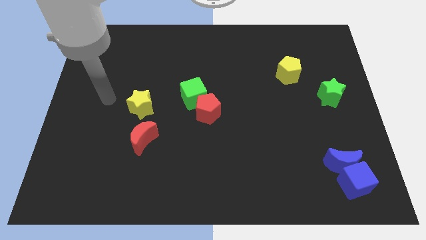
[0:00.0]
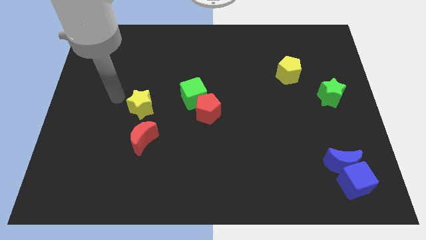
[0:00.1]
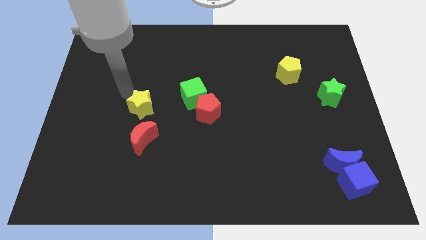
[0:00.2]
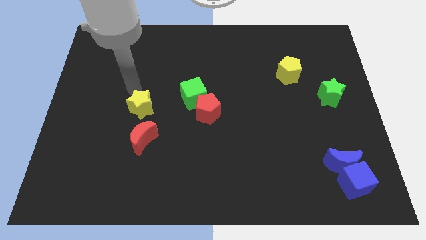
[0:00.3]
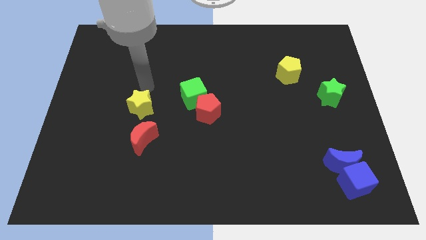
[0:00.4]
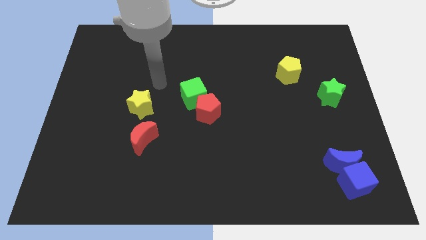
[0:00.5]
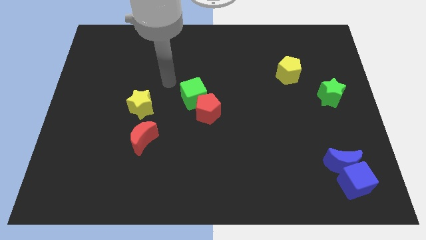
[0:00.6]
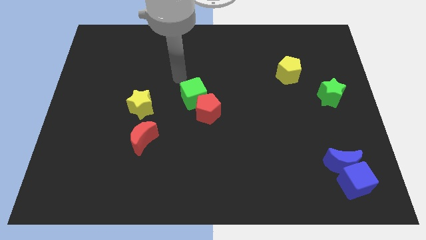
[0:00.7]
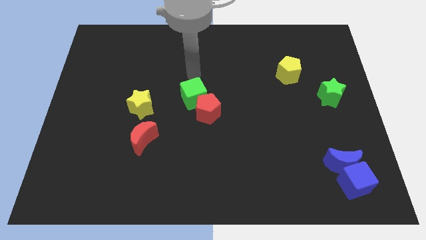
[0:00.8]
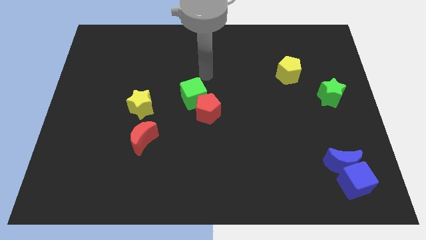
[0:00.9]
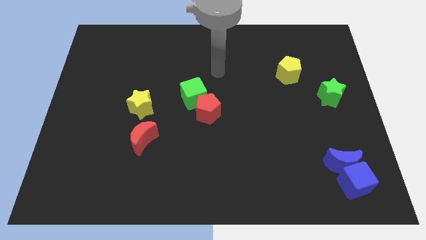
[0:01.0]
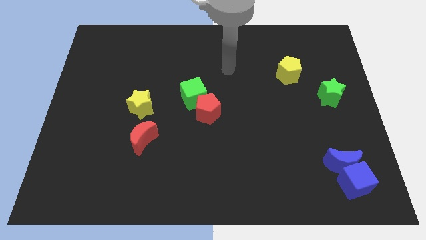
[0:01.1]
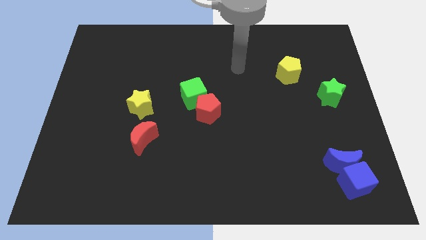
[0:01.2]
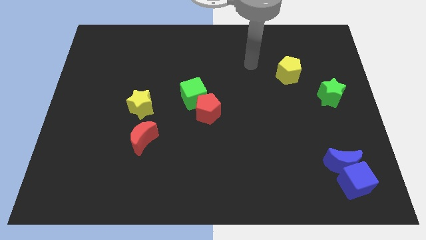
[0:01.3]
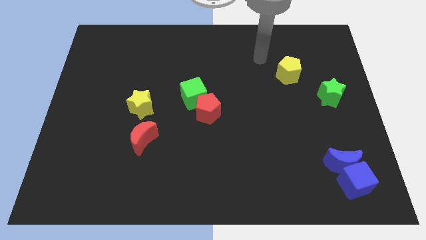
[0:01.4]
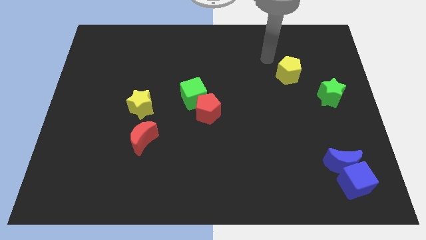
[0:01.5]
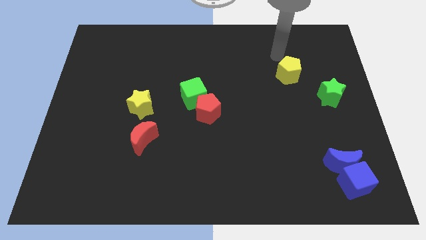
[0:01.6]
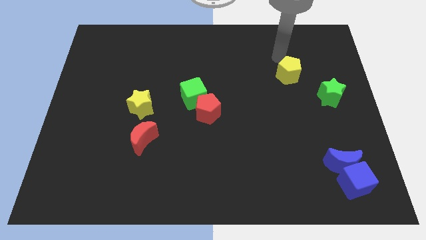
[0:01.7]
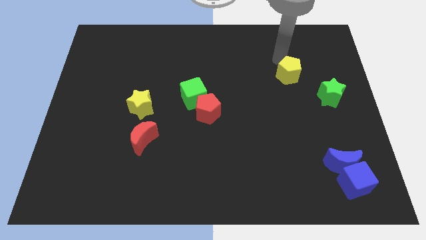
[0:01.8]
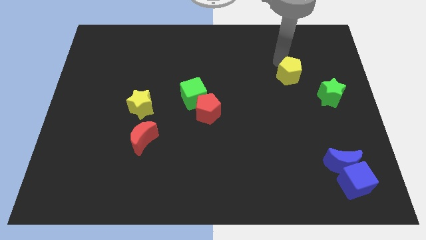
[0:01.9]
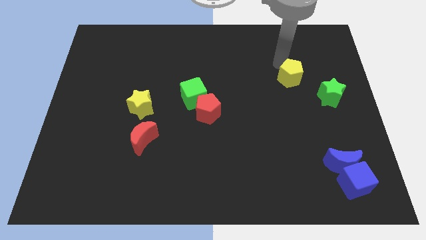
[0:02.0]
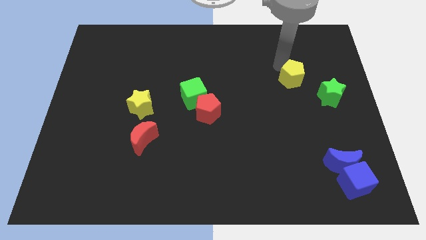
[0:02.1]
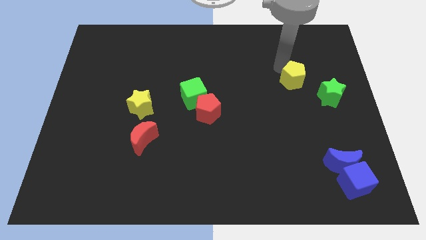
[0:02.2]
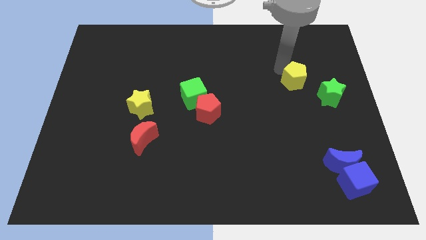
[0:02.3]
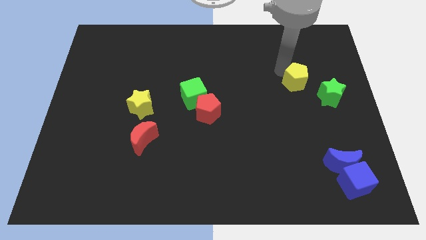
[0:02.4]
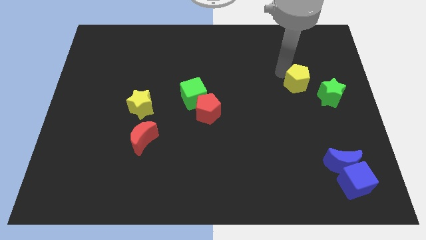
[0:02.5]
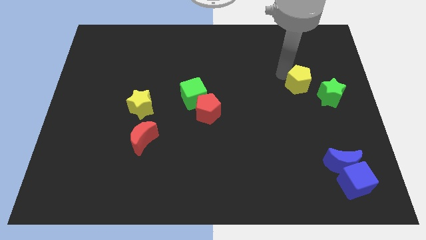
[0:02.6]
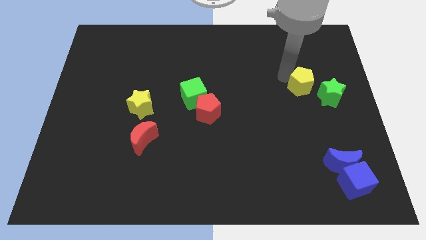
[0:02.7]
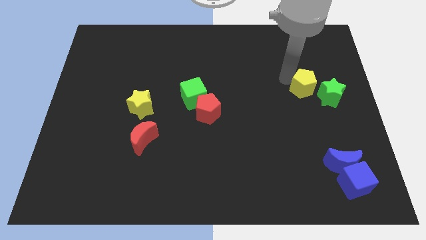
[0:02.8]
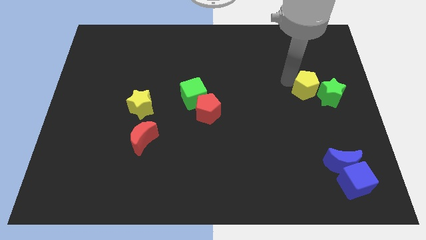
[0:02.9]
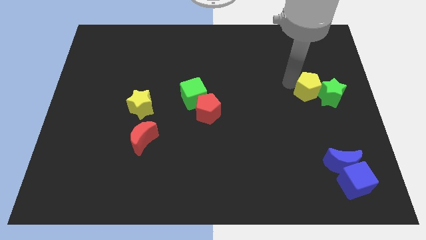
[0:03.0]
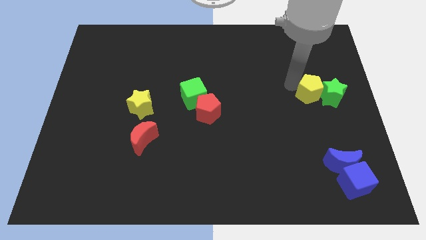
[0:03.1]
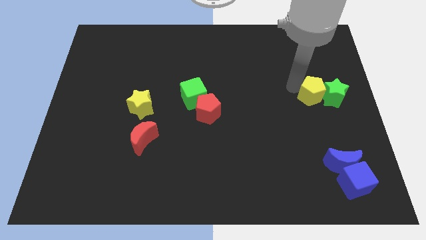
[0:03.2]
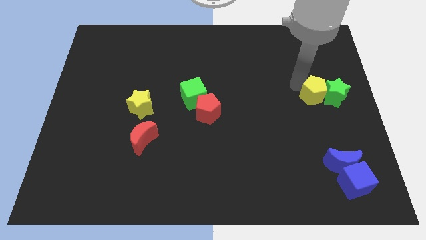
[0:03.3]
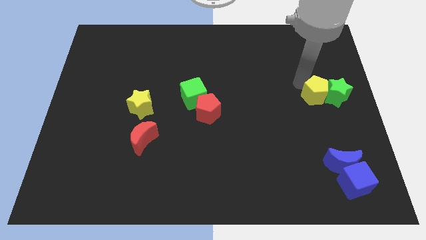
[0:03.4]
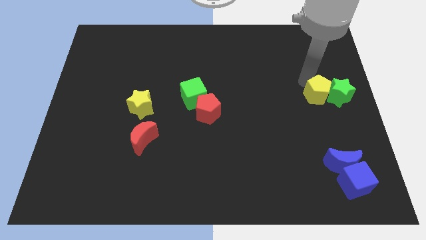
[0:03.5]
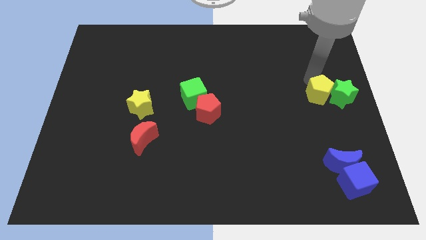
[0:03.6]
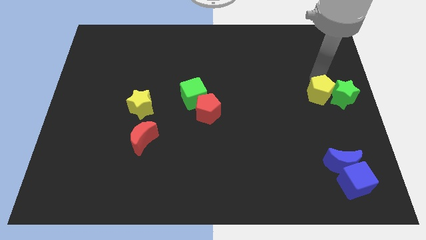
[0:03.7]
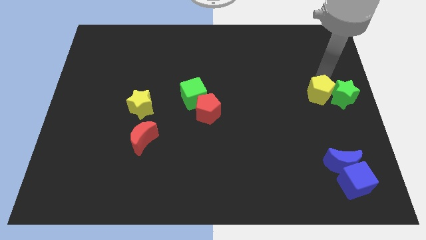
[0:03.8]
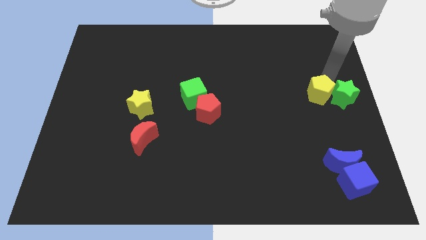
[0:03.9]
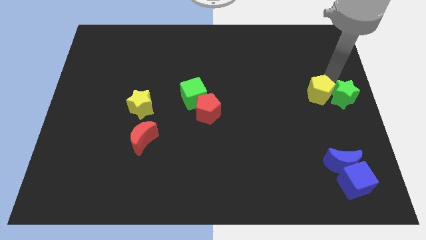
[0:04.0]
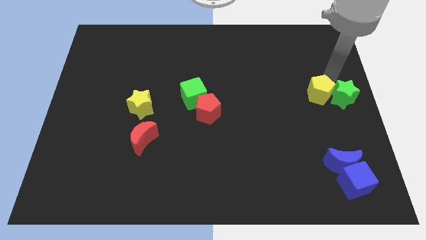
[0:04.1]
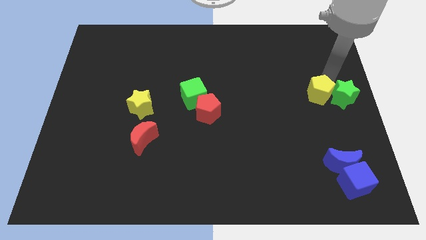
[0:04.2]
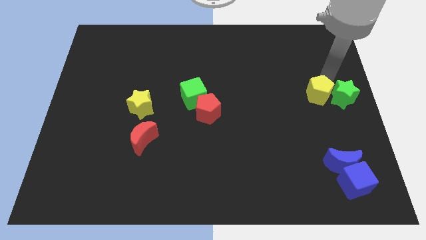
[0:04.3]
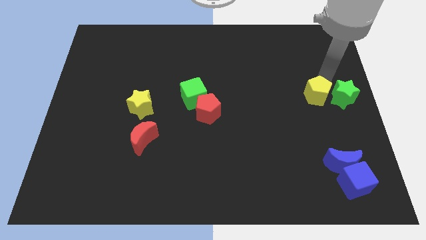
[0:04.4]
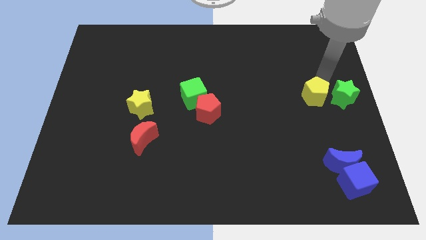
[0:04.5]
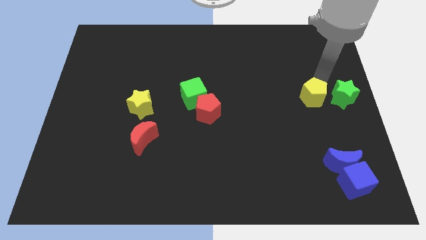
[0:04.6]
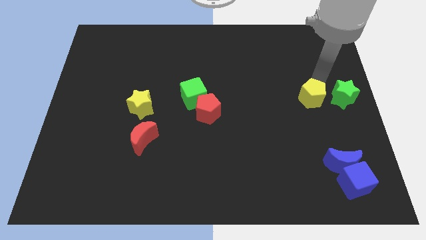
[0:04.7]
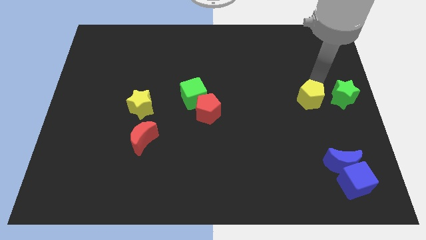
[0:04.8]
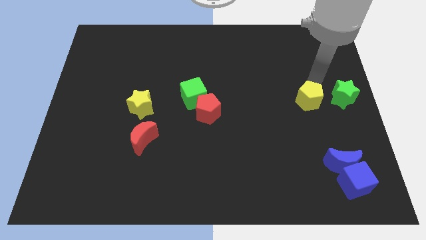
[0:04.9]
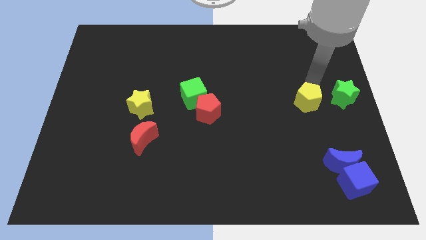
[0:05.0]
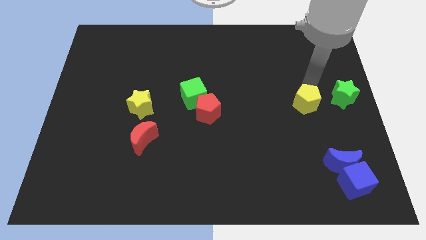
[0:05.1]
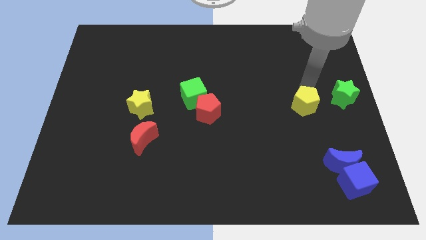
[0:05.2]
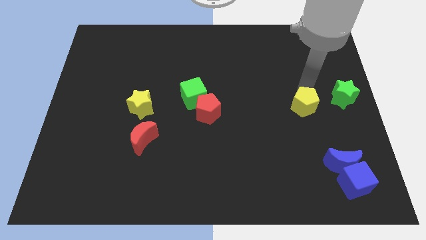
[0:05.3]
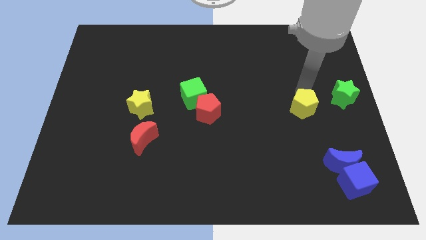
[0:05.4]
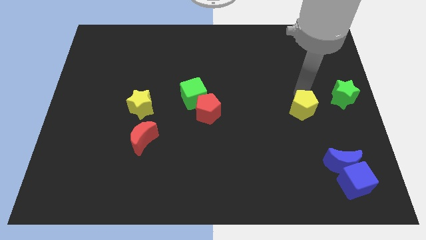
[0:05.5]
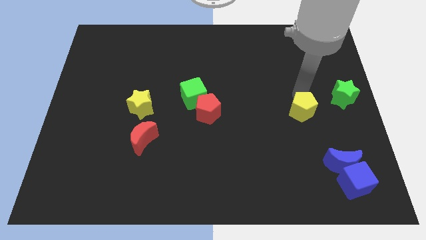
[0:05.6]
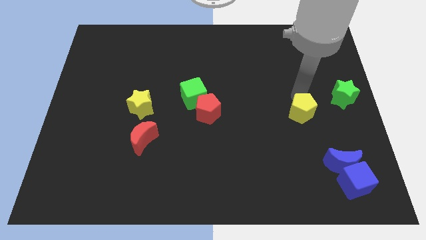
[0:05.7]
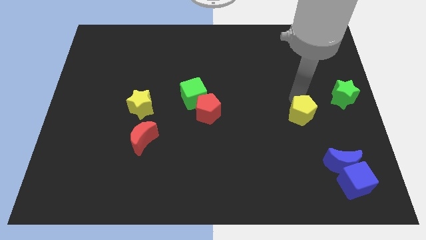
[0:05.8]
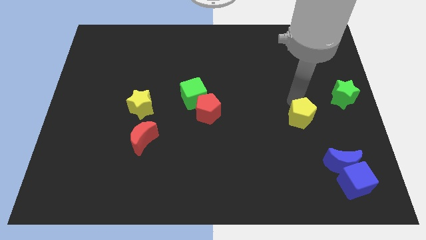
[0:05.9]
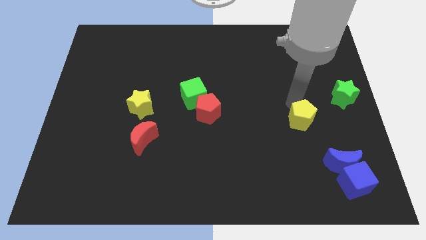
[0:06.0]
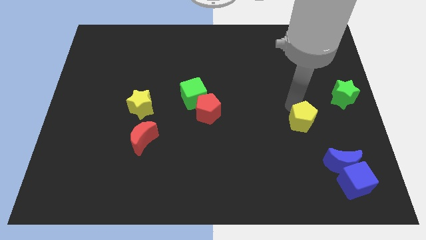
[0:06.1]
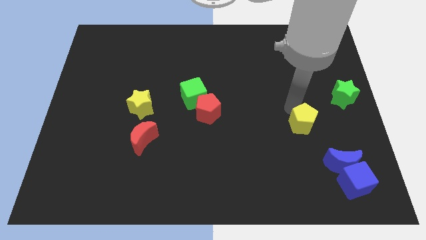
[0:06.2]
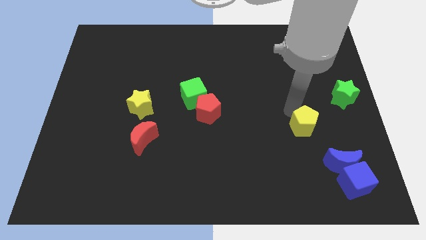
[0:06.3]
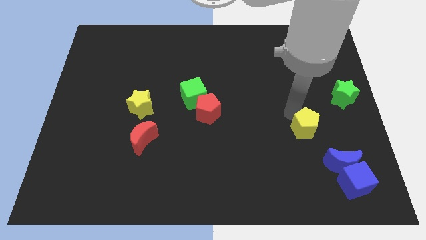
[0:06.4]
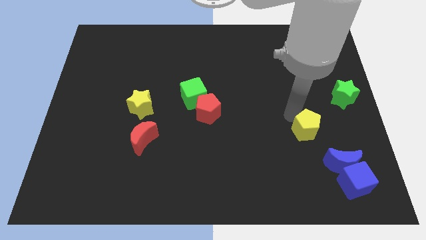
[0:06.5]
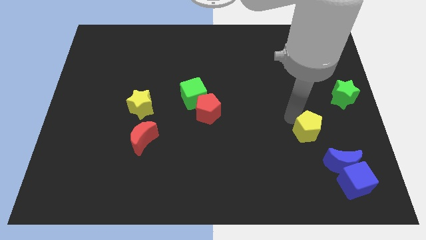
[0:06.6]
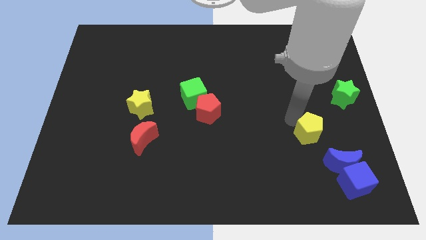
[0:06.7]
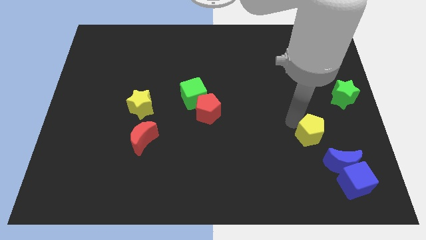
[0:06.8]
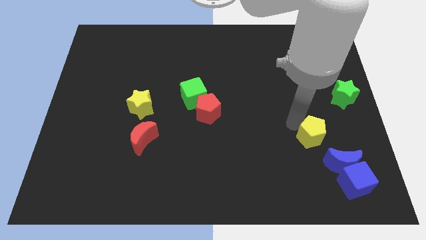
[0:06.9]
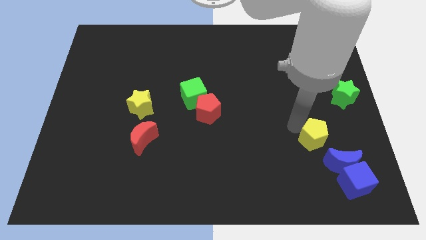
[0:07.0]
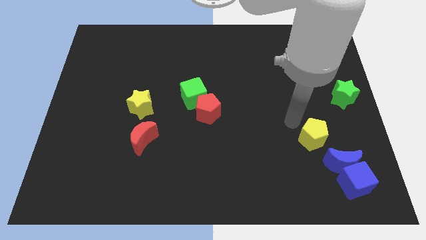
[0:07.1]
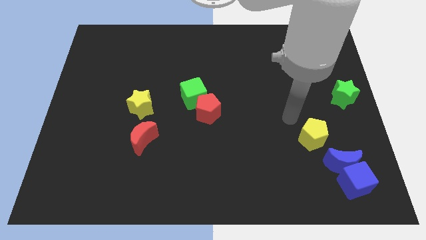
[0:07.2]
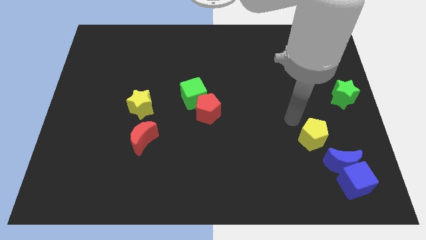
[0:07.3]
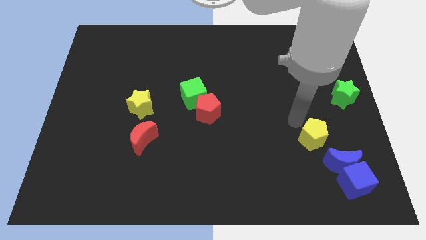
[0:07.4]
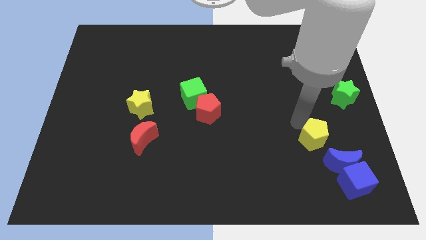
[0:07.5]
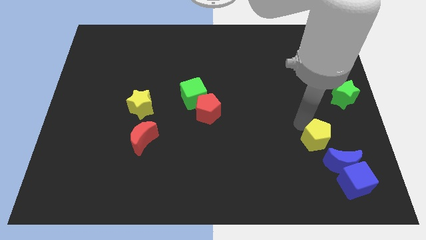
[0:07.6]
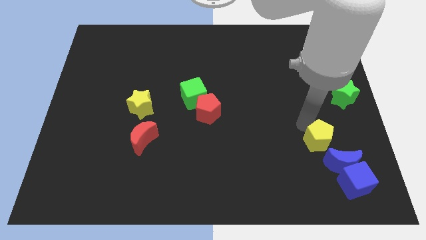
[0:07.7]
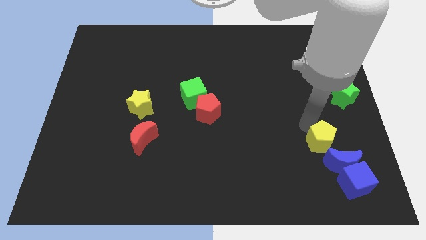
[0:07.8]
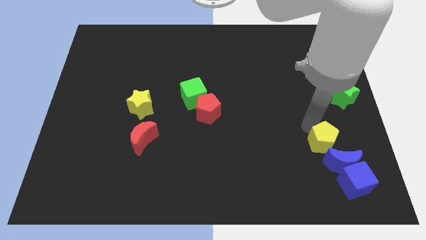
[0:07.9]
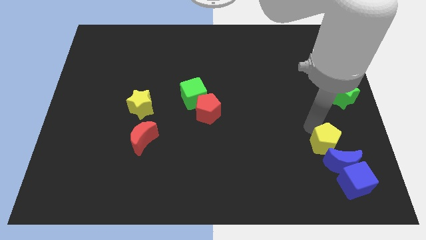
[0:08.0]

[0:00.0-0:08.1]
put the yellow pentagon to the blue moon
